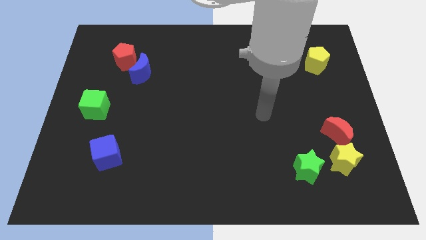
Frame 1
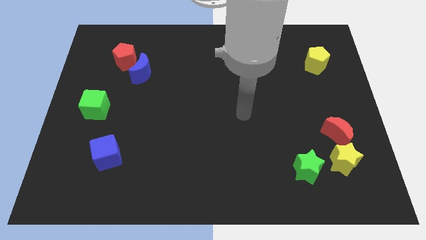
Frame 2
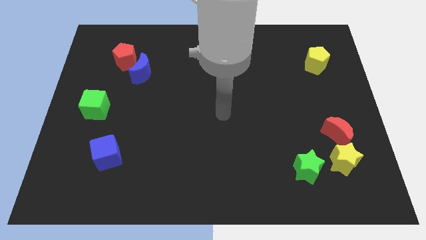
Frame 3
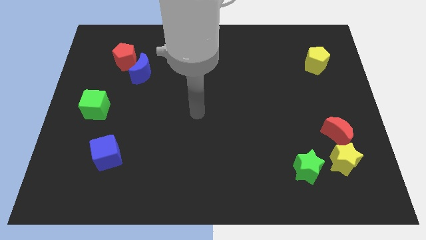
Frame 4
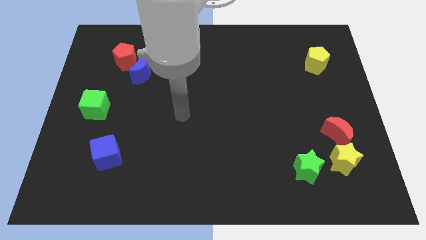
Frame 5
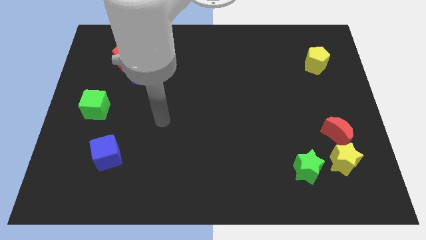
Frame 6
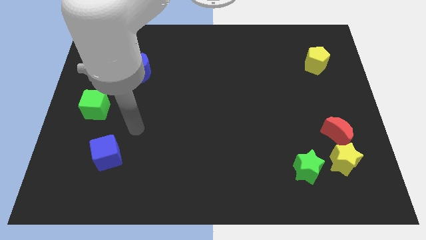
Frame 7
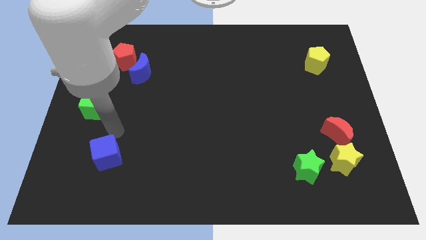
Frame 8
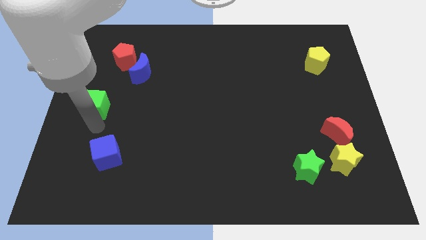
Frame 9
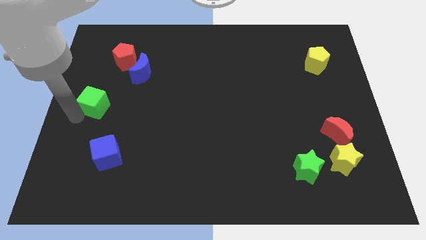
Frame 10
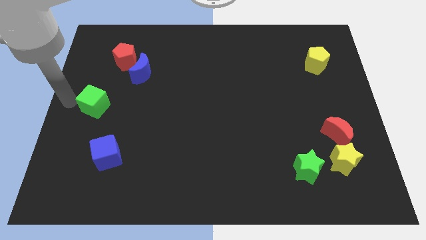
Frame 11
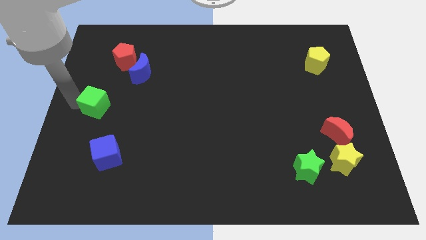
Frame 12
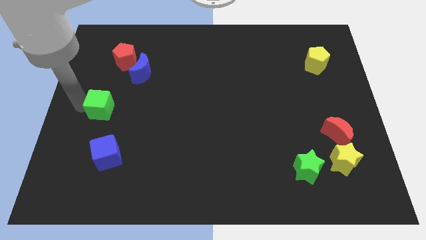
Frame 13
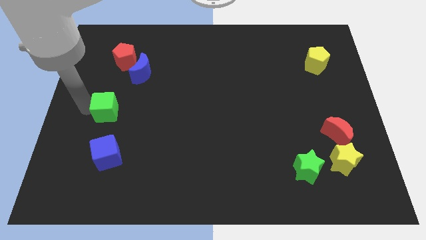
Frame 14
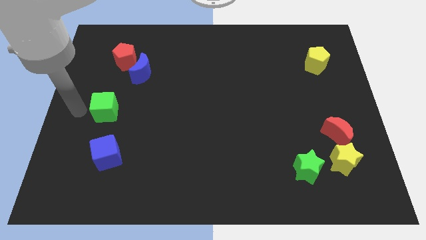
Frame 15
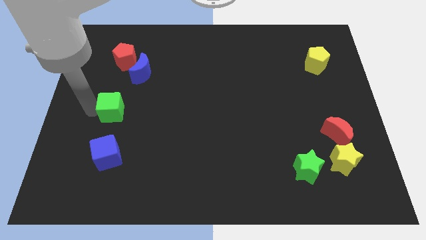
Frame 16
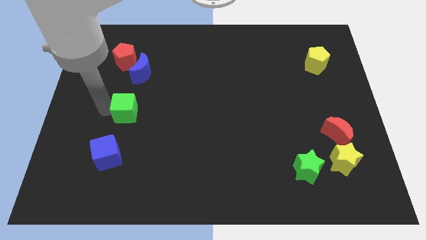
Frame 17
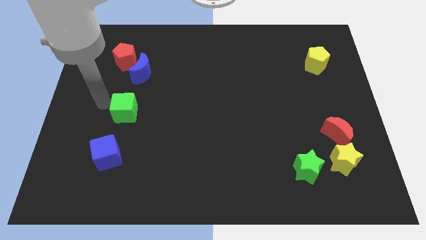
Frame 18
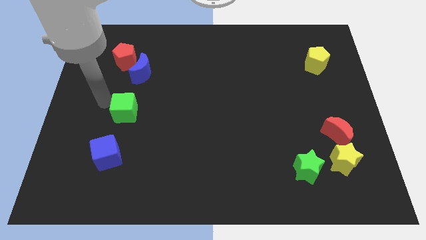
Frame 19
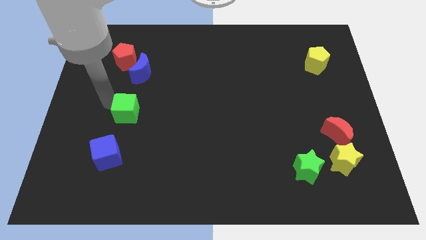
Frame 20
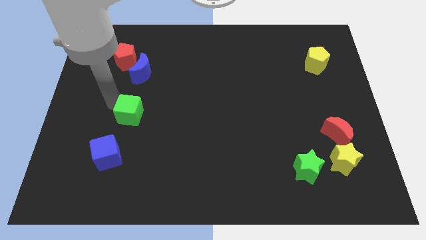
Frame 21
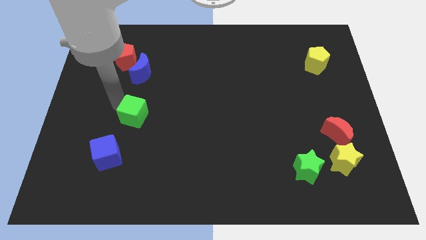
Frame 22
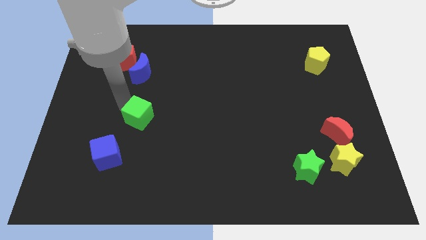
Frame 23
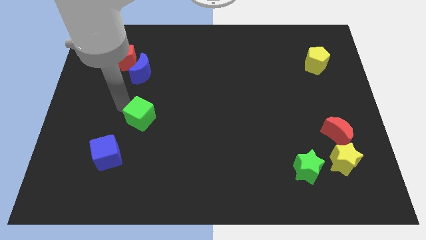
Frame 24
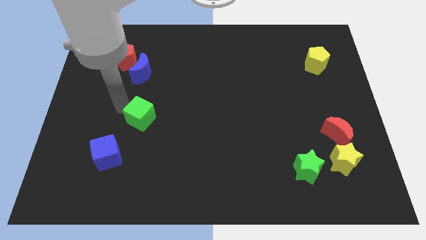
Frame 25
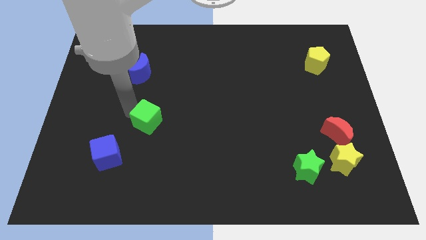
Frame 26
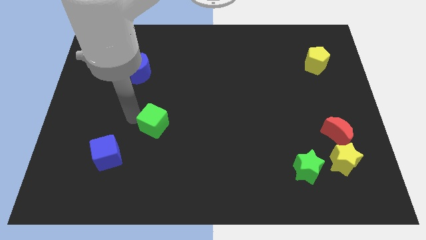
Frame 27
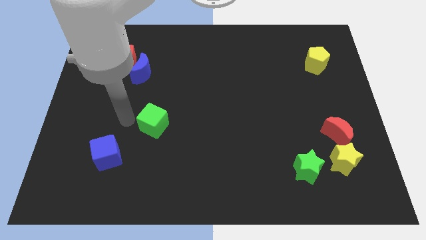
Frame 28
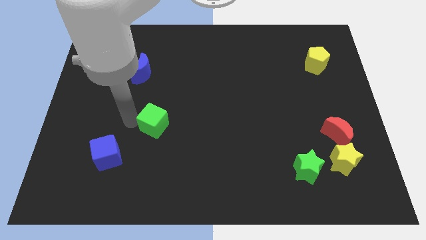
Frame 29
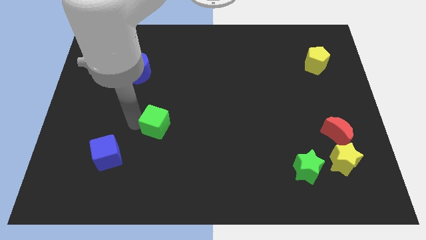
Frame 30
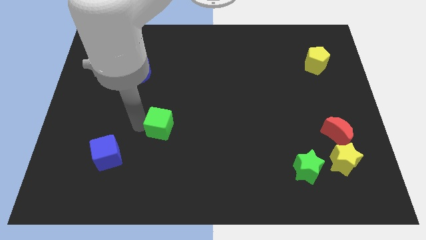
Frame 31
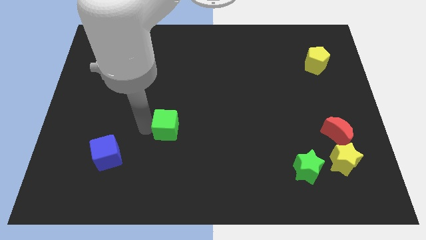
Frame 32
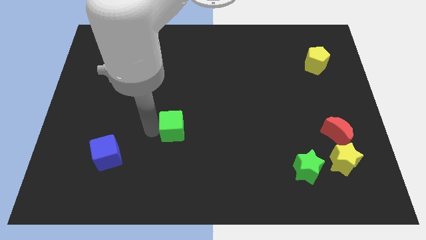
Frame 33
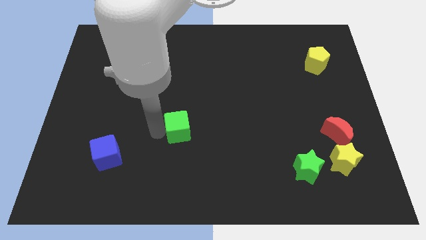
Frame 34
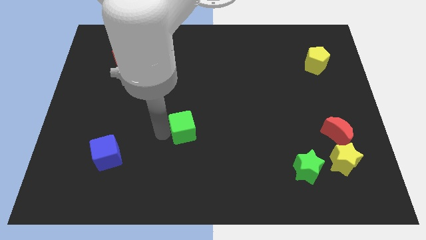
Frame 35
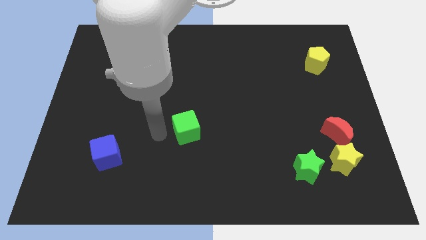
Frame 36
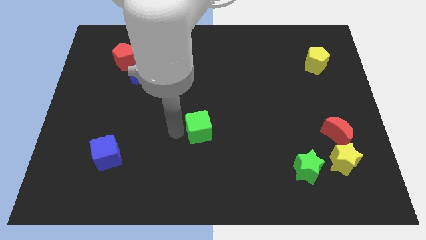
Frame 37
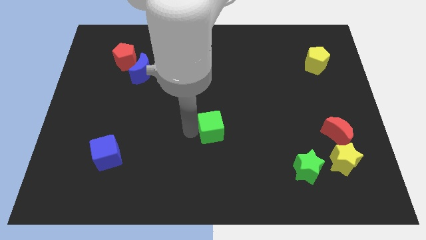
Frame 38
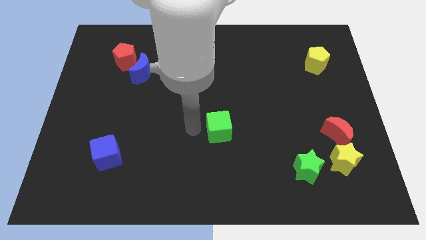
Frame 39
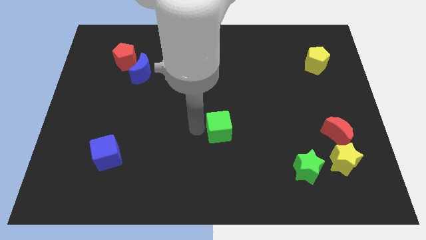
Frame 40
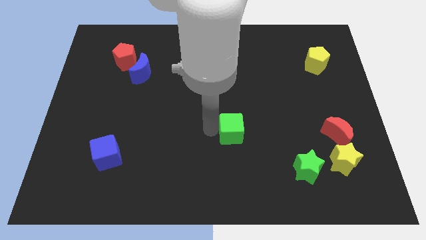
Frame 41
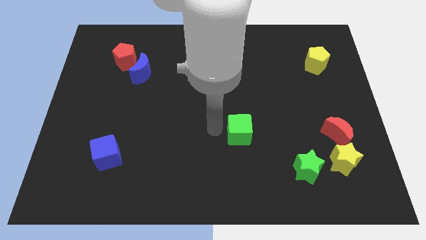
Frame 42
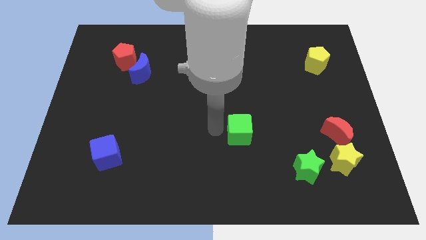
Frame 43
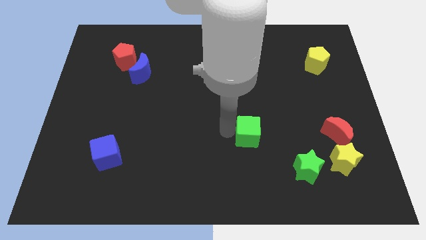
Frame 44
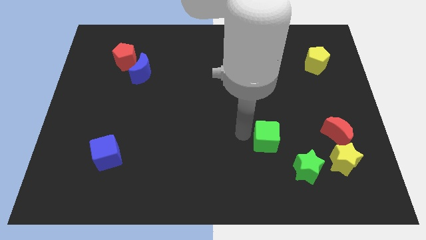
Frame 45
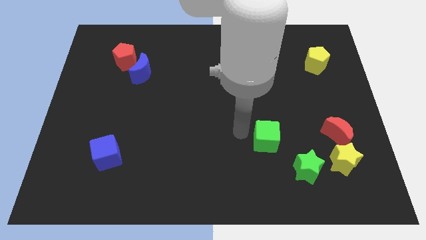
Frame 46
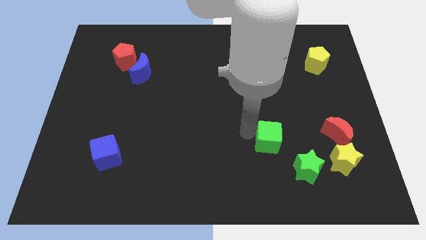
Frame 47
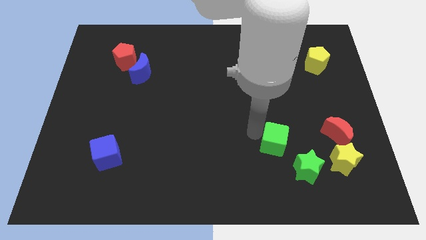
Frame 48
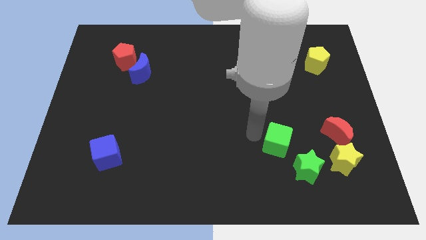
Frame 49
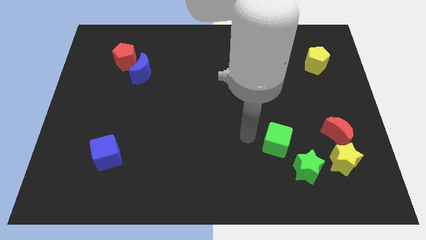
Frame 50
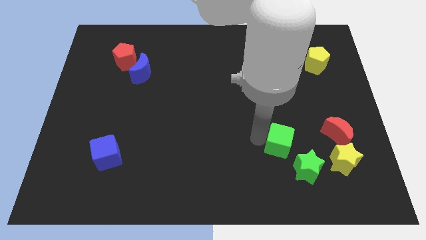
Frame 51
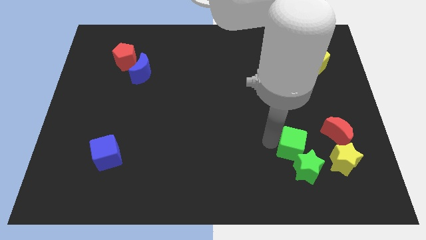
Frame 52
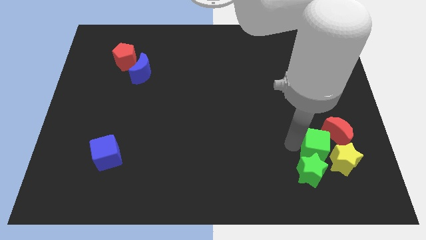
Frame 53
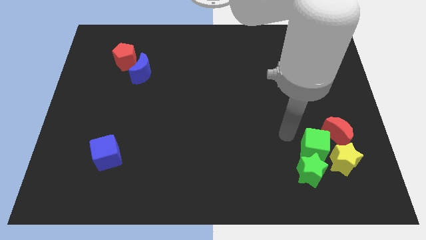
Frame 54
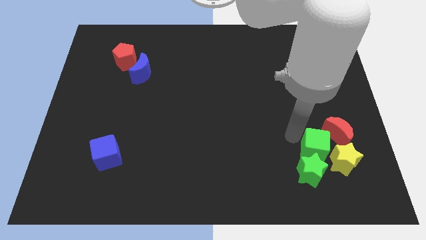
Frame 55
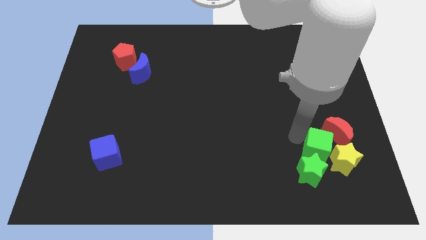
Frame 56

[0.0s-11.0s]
put the green cube next to the yellow star

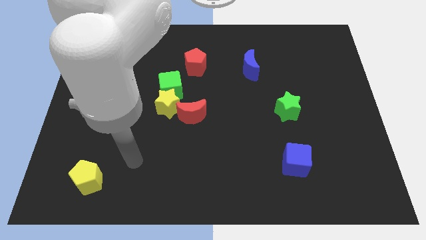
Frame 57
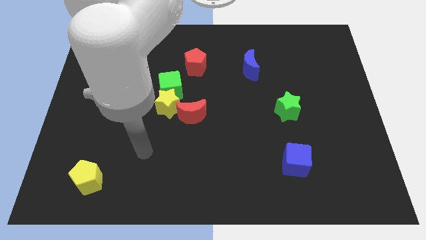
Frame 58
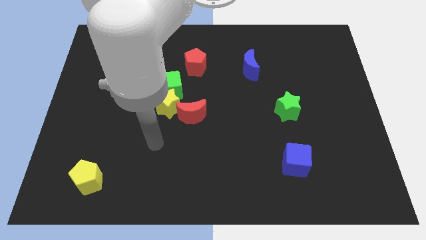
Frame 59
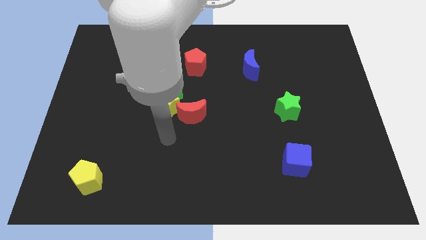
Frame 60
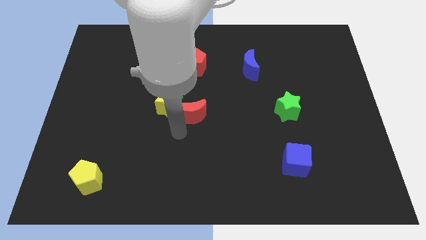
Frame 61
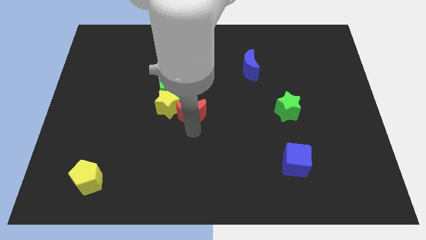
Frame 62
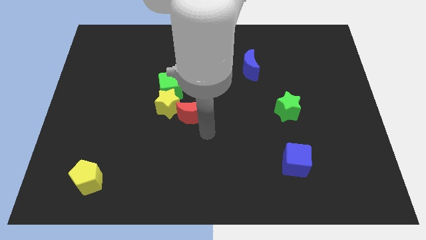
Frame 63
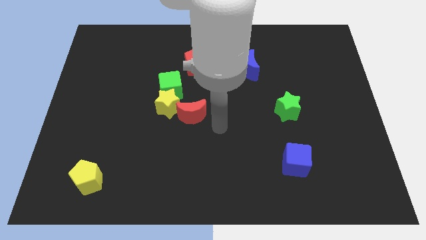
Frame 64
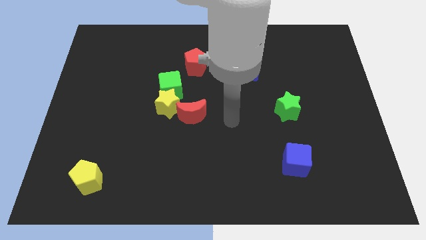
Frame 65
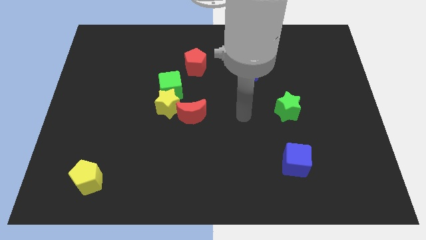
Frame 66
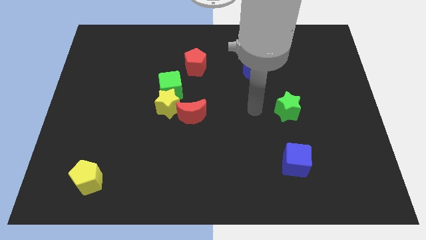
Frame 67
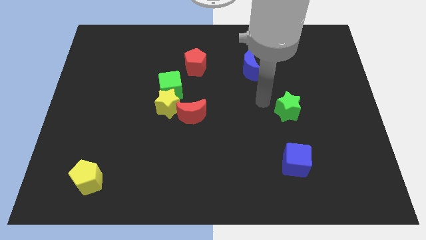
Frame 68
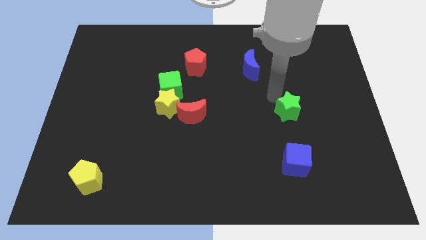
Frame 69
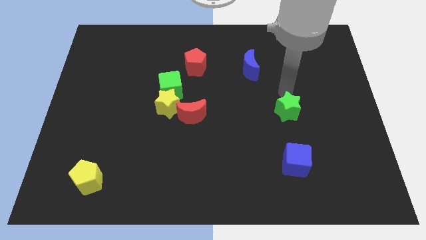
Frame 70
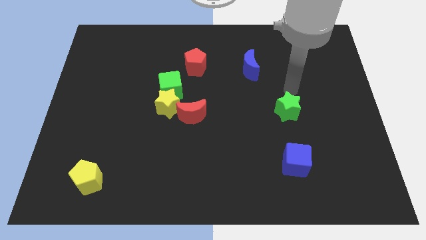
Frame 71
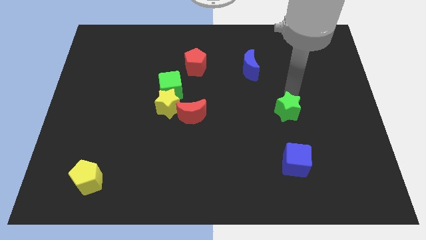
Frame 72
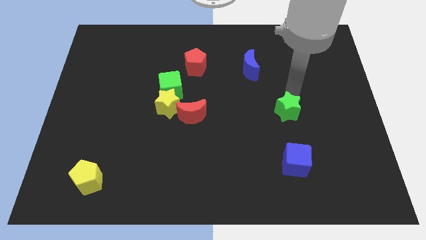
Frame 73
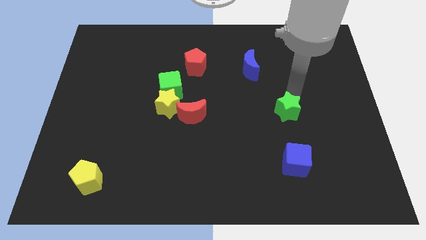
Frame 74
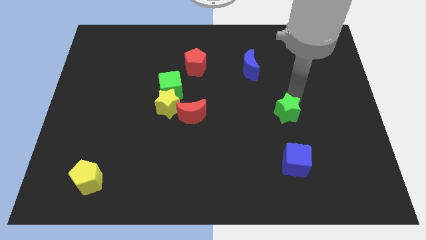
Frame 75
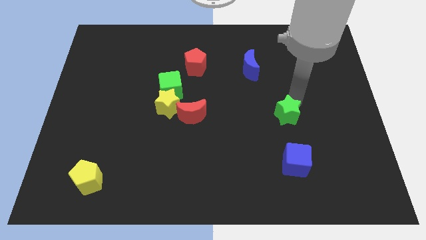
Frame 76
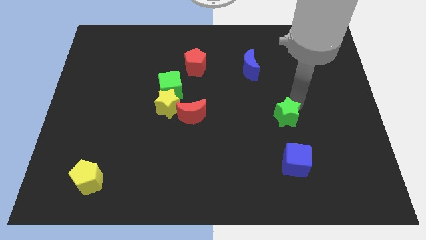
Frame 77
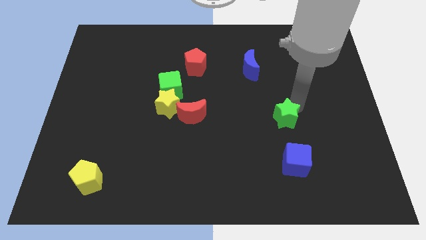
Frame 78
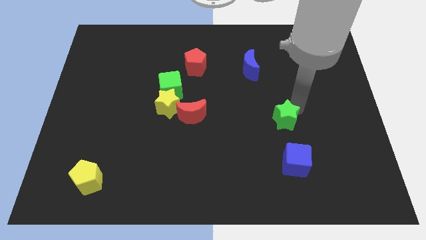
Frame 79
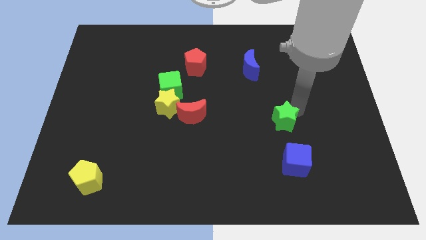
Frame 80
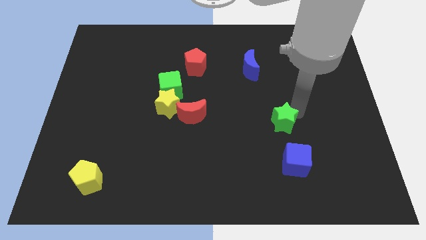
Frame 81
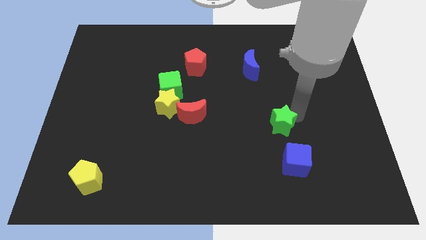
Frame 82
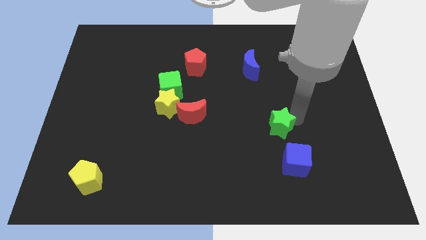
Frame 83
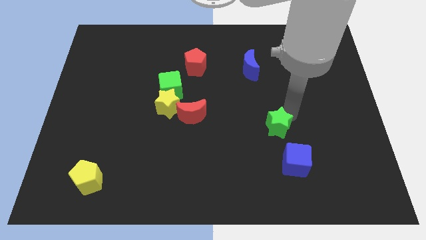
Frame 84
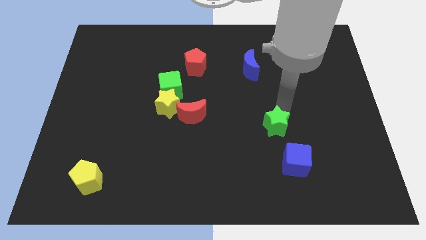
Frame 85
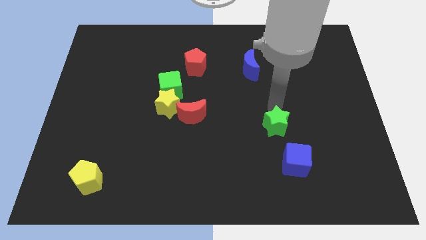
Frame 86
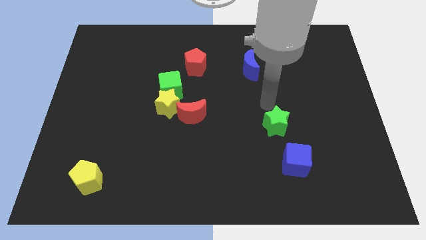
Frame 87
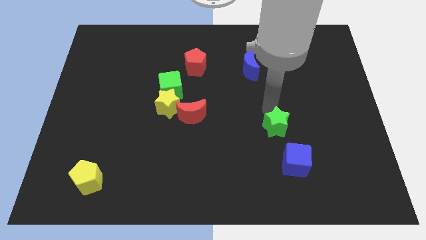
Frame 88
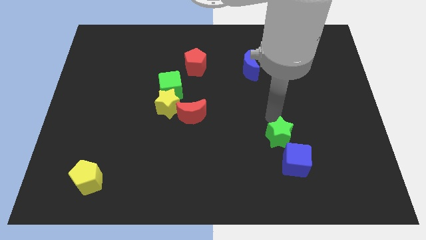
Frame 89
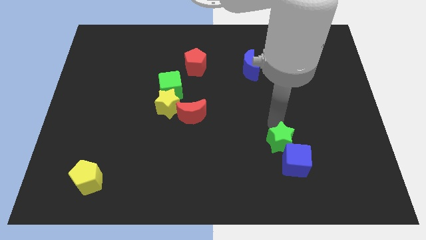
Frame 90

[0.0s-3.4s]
slide the green star to the blue cube
